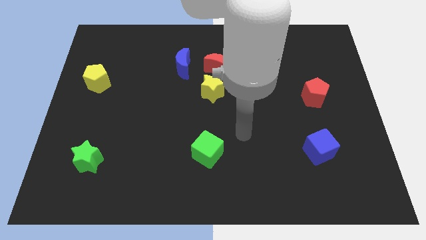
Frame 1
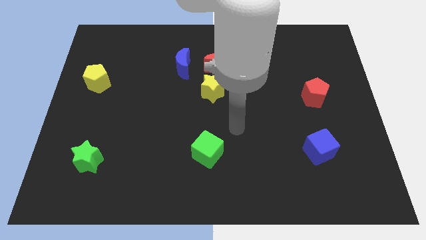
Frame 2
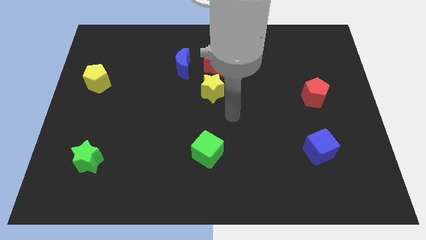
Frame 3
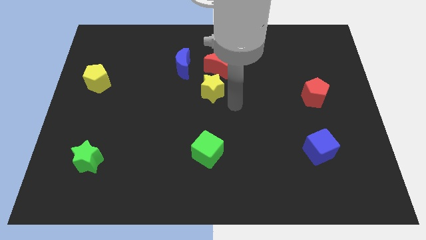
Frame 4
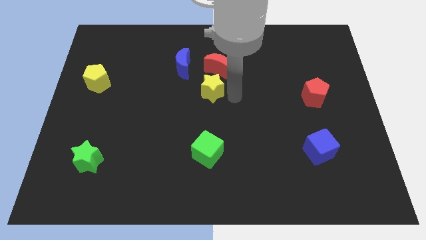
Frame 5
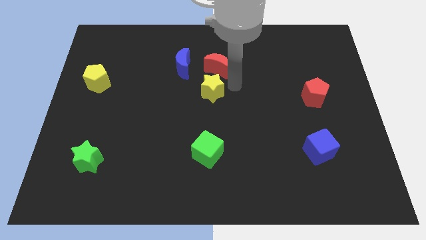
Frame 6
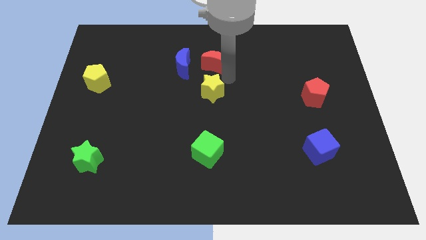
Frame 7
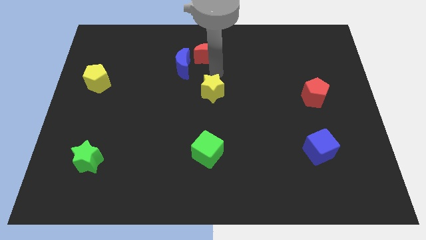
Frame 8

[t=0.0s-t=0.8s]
pull the yellow star apart from the red moon

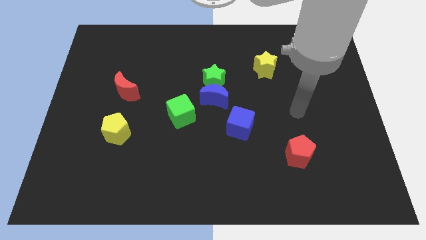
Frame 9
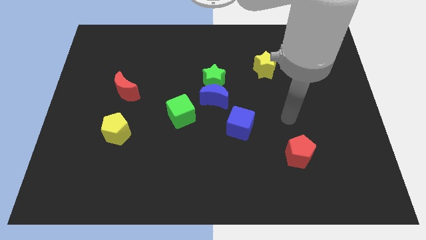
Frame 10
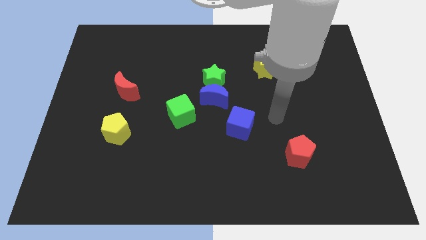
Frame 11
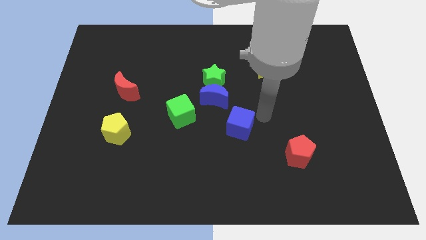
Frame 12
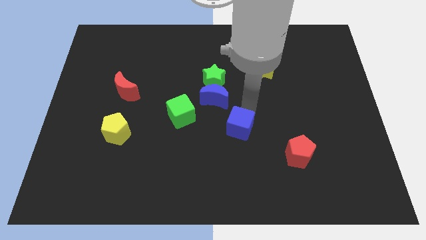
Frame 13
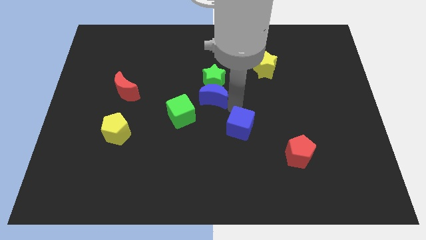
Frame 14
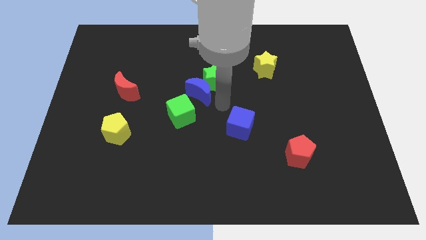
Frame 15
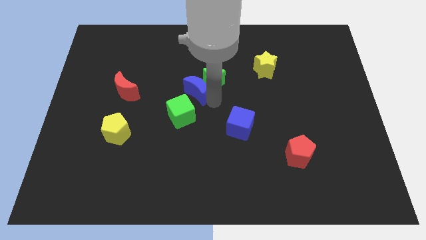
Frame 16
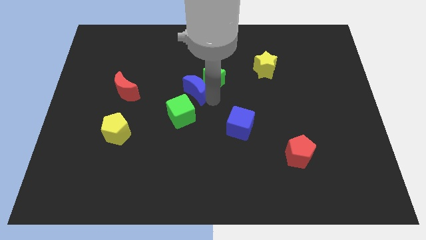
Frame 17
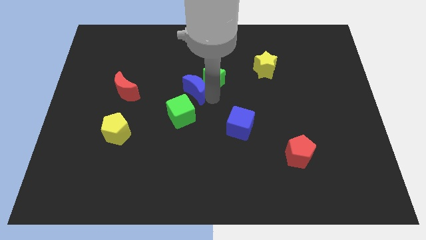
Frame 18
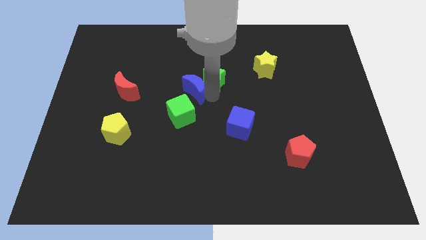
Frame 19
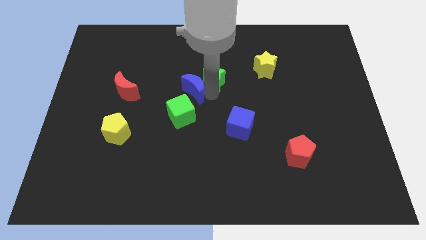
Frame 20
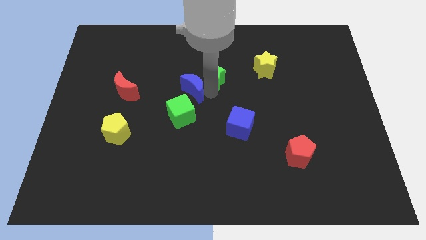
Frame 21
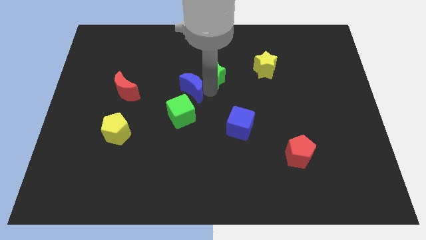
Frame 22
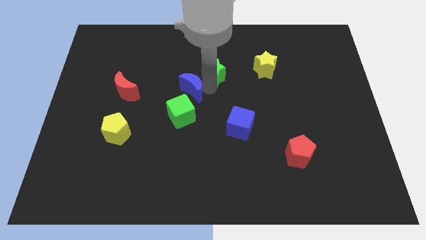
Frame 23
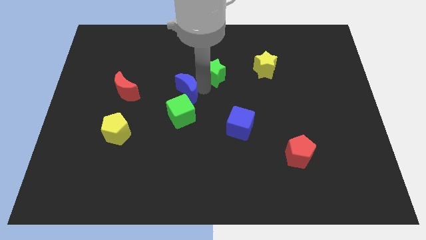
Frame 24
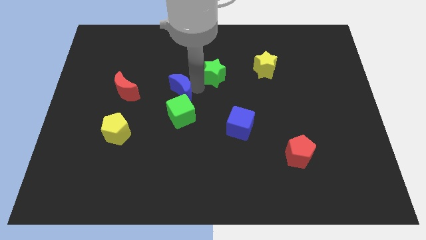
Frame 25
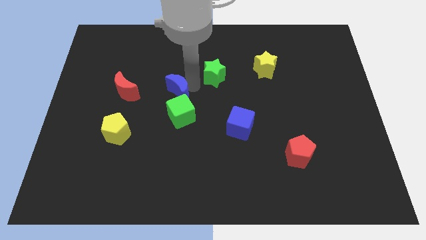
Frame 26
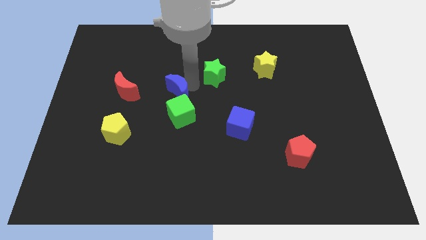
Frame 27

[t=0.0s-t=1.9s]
separate the green star from the blue moon

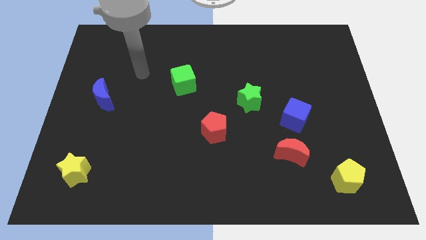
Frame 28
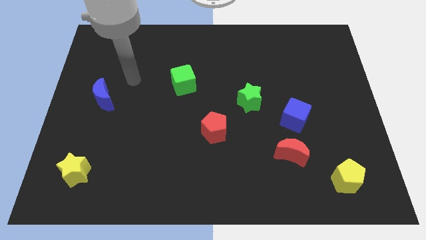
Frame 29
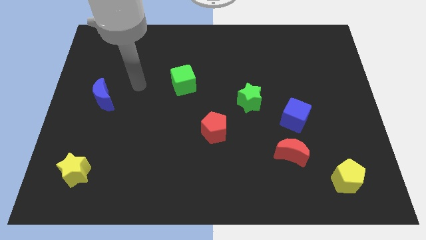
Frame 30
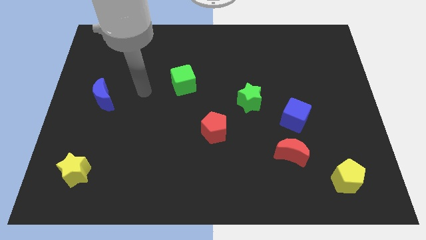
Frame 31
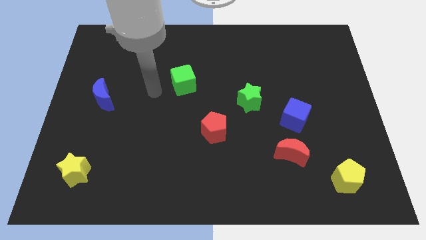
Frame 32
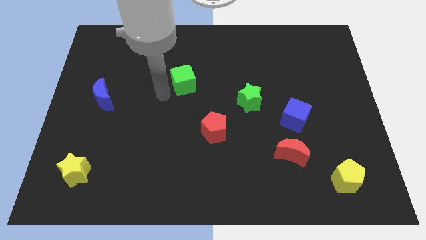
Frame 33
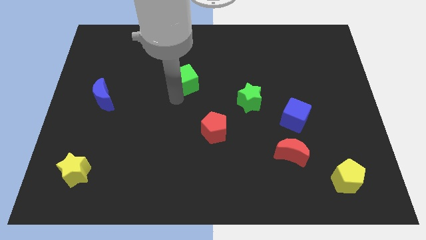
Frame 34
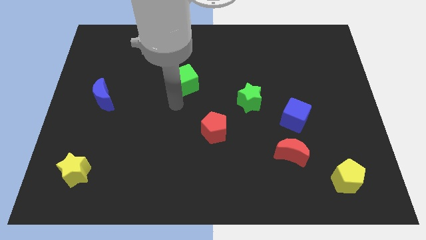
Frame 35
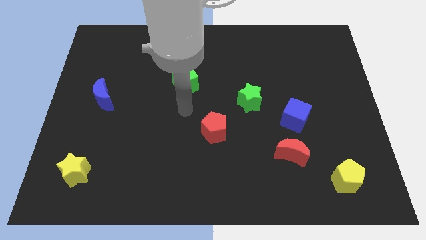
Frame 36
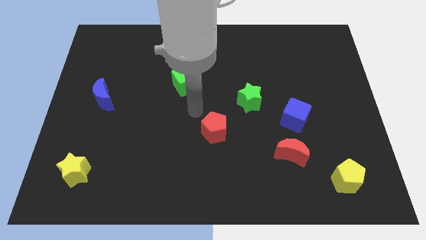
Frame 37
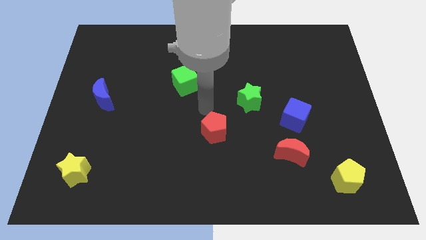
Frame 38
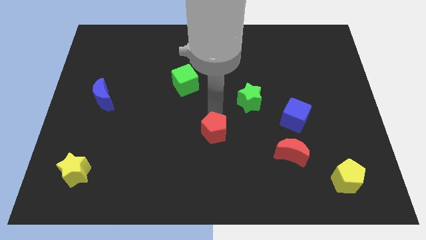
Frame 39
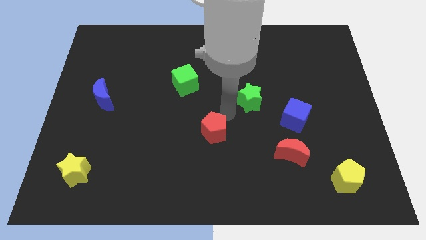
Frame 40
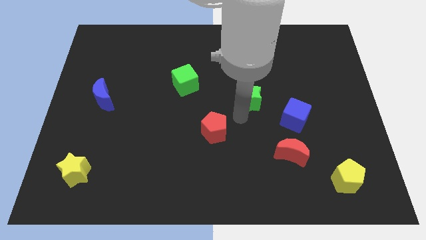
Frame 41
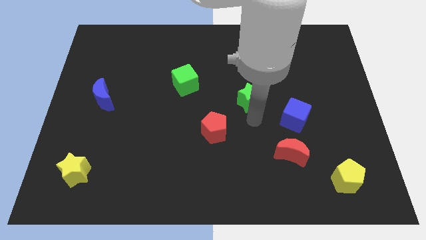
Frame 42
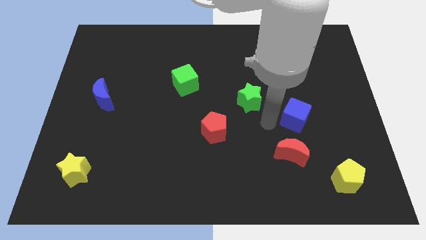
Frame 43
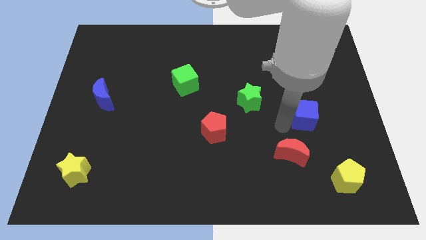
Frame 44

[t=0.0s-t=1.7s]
move the red moon away from the blue cube

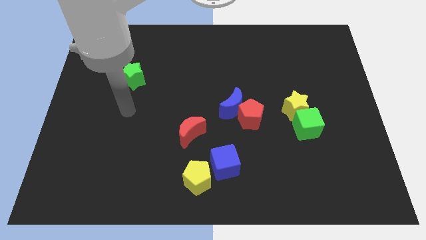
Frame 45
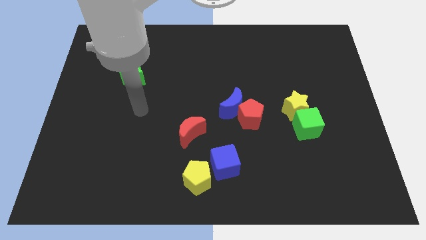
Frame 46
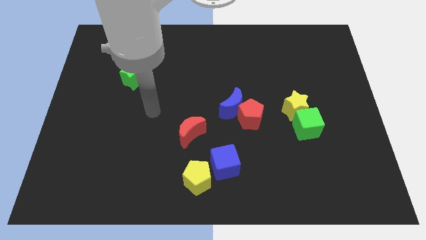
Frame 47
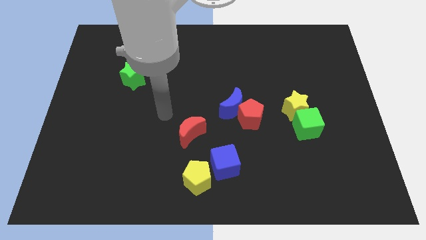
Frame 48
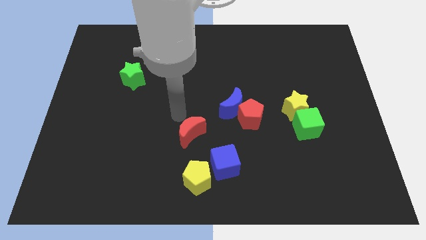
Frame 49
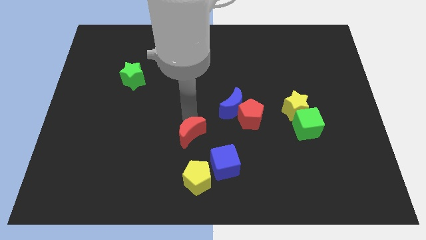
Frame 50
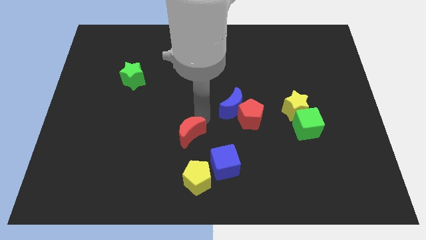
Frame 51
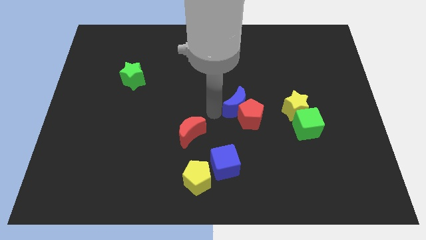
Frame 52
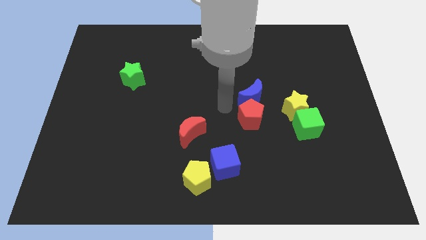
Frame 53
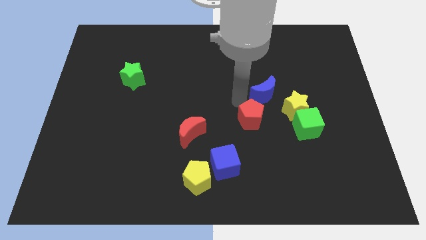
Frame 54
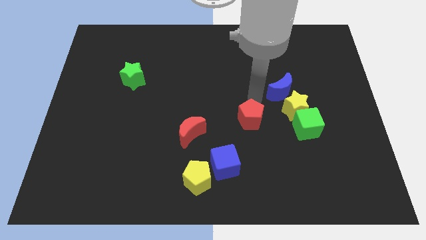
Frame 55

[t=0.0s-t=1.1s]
pull the red pentagon apart from the blue moon

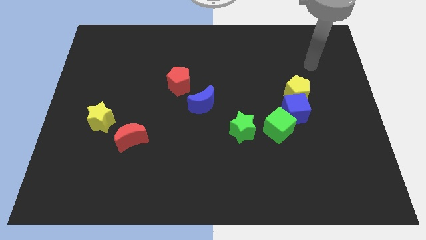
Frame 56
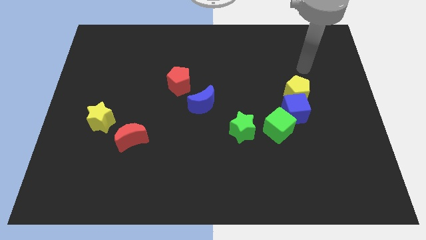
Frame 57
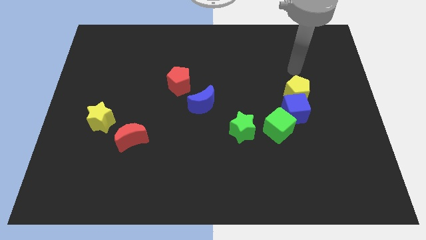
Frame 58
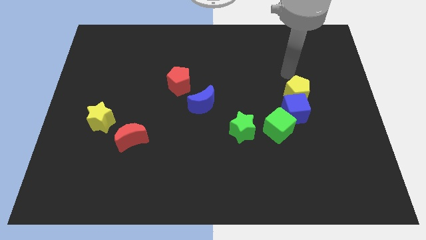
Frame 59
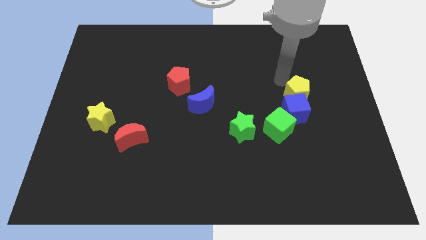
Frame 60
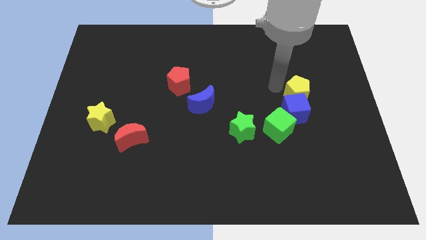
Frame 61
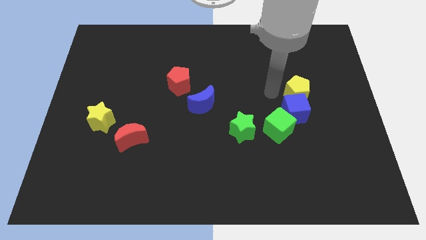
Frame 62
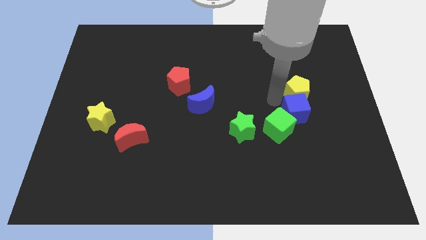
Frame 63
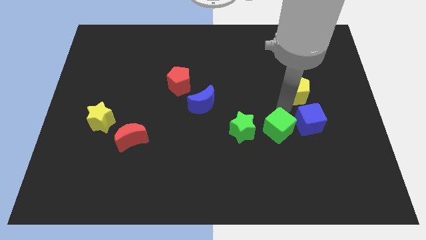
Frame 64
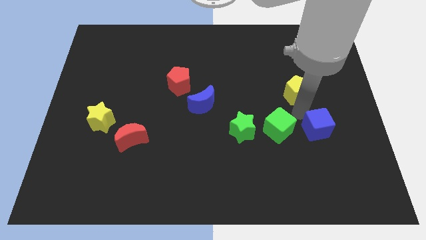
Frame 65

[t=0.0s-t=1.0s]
move the yellow pentagon away from the blue cube

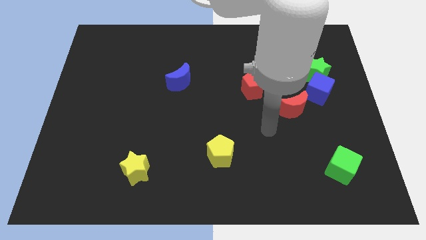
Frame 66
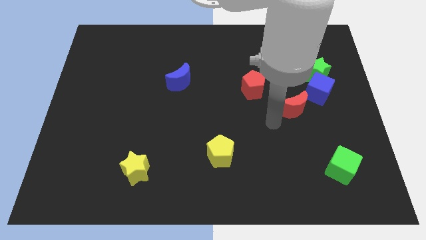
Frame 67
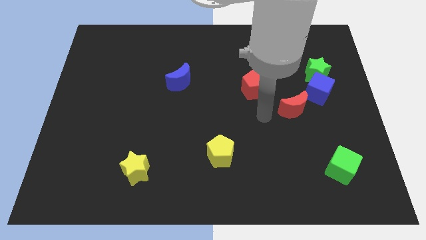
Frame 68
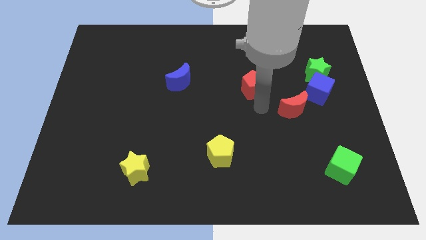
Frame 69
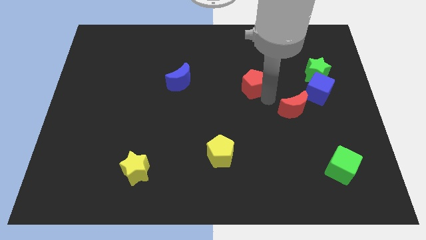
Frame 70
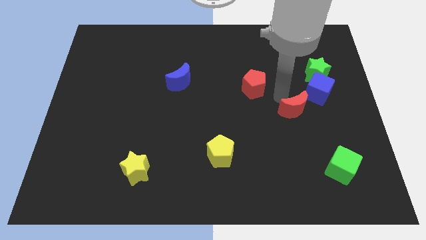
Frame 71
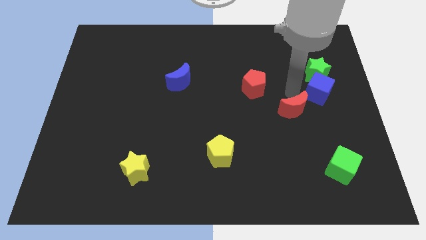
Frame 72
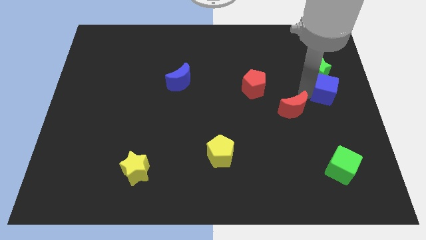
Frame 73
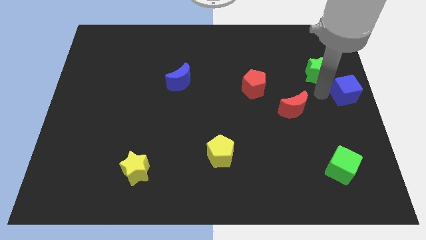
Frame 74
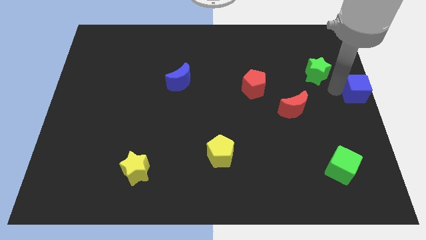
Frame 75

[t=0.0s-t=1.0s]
move the green star away from the blue cube

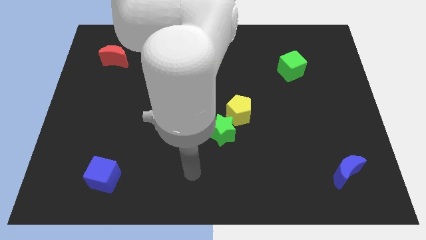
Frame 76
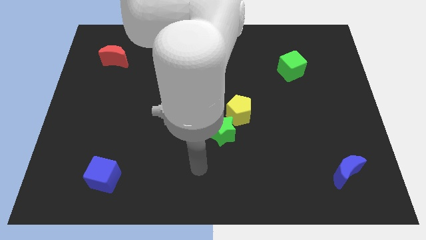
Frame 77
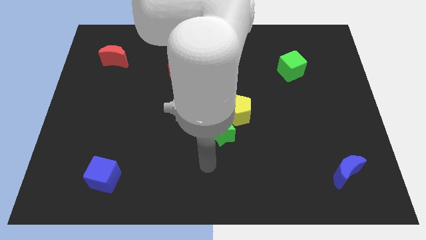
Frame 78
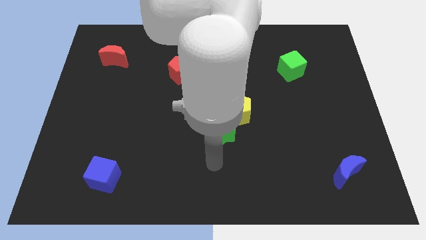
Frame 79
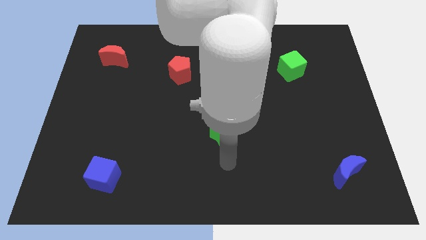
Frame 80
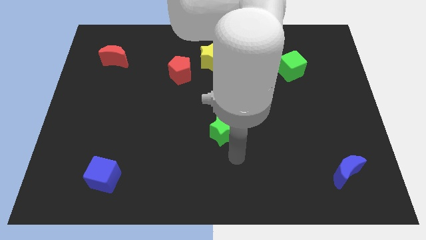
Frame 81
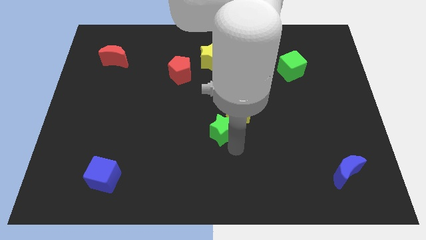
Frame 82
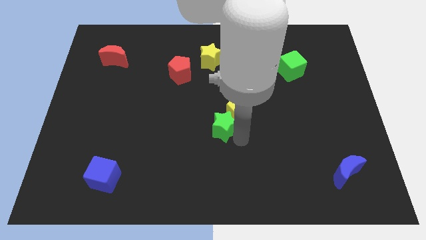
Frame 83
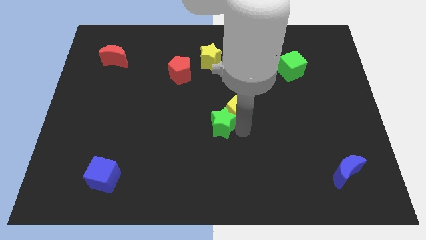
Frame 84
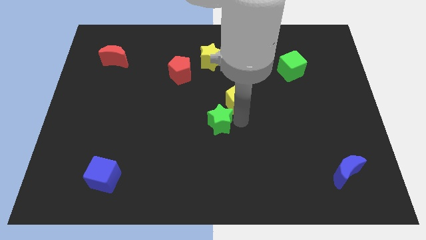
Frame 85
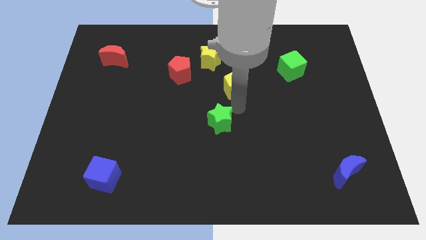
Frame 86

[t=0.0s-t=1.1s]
pull the green star apart from the yellow pentagon

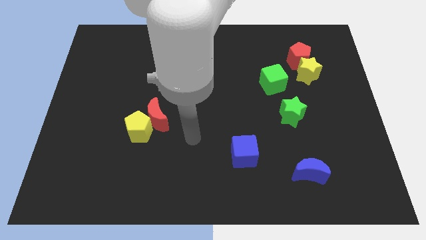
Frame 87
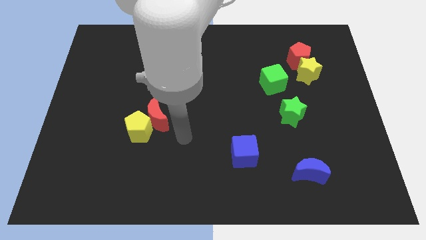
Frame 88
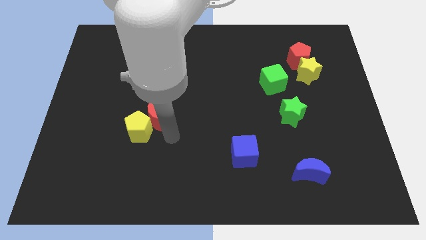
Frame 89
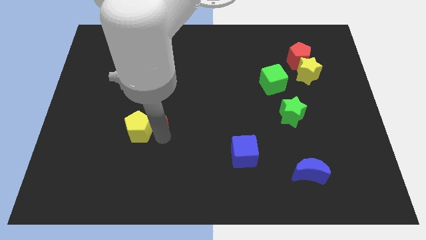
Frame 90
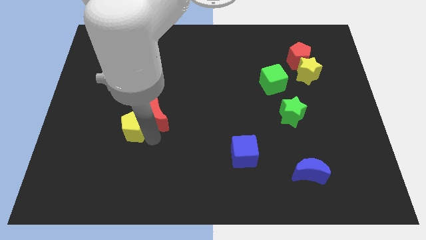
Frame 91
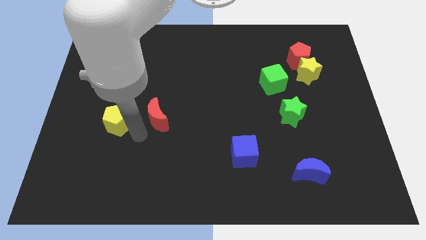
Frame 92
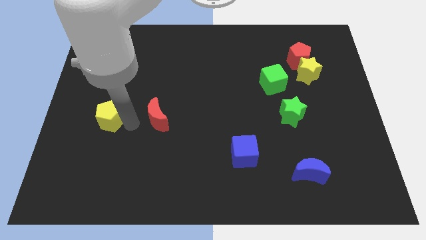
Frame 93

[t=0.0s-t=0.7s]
move the red moon away from the yellow pentagon
